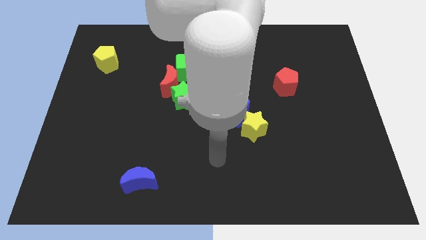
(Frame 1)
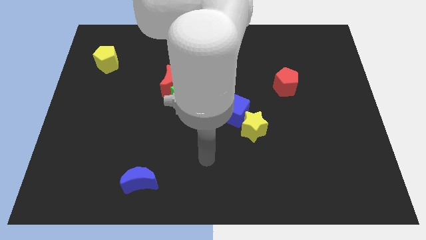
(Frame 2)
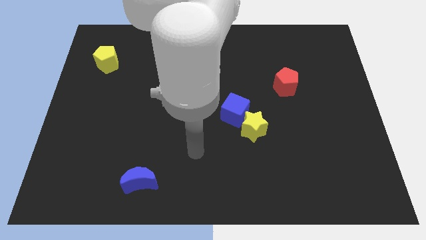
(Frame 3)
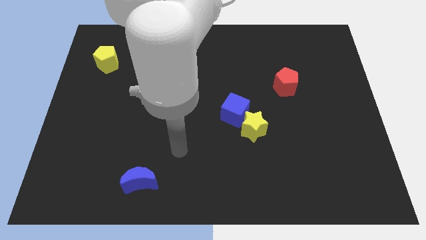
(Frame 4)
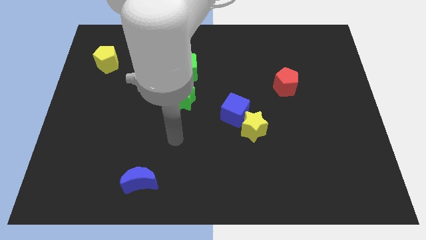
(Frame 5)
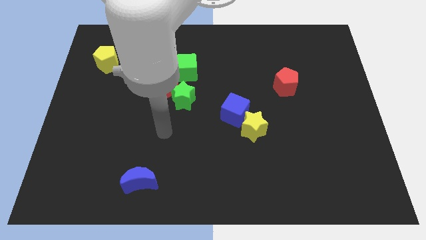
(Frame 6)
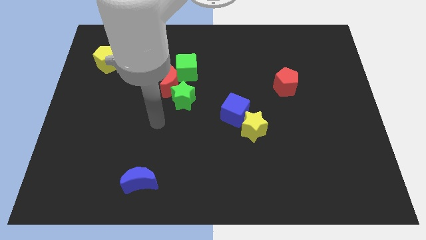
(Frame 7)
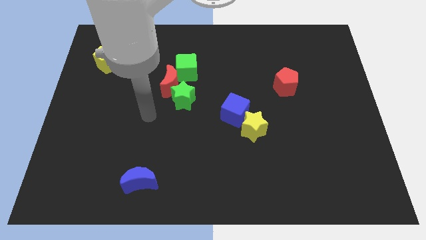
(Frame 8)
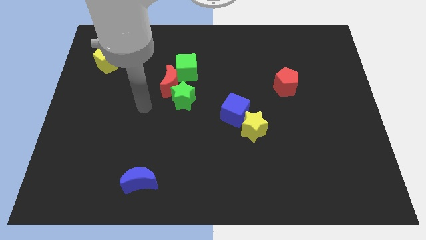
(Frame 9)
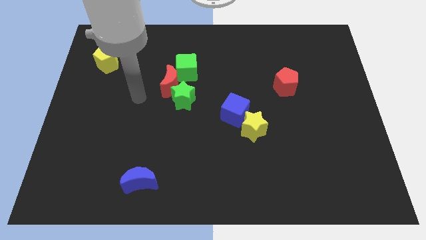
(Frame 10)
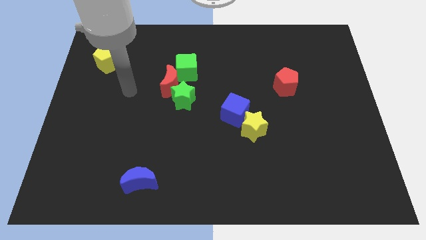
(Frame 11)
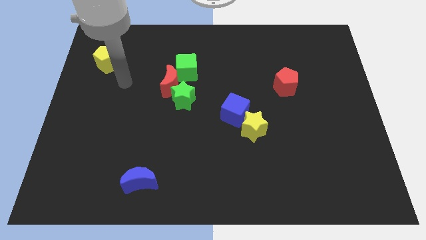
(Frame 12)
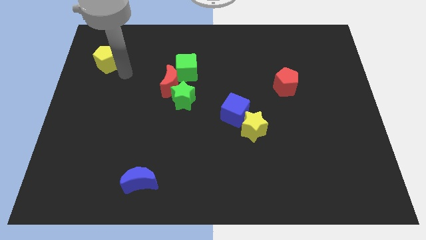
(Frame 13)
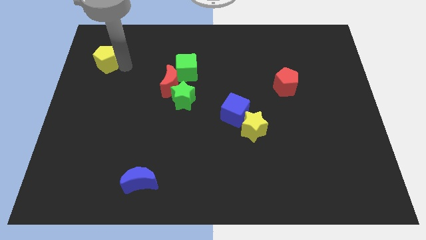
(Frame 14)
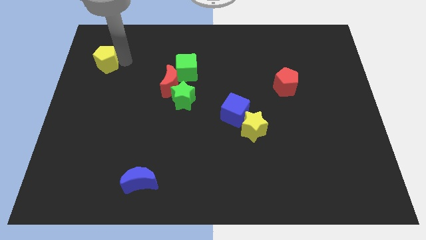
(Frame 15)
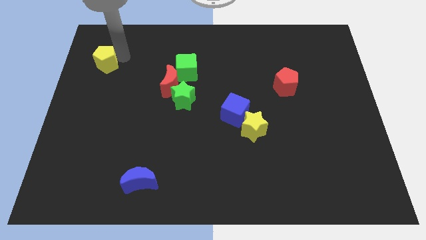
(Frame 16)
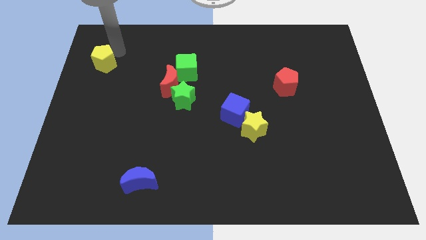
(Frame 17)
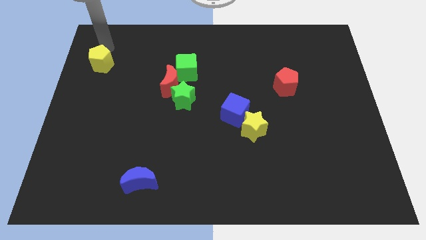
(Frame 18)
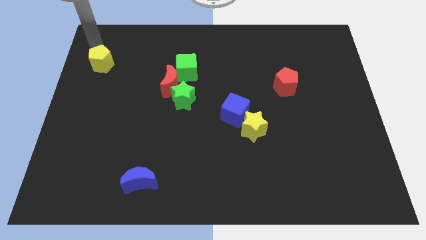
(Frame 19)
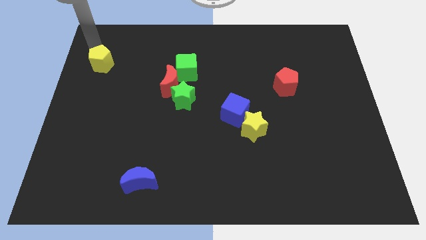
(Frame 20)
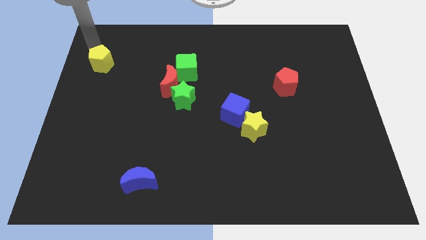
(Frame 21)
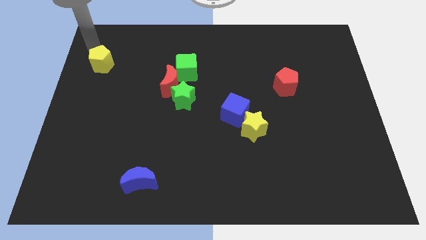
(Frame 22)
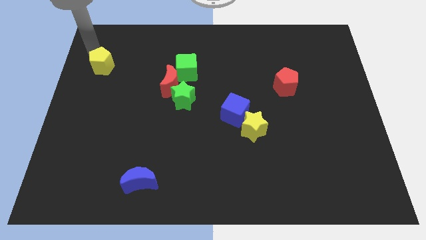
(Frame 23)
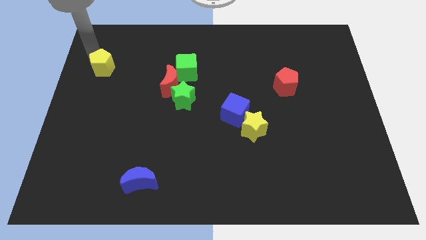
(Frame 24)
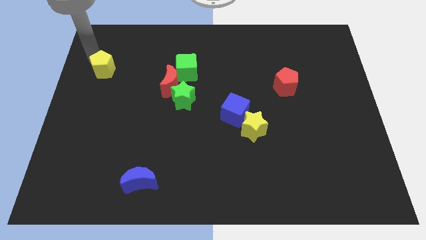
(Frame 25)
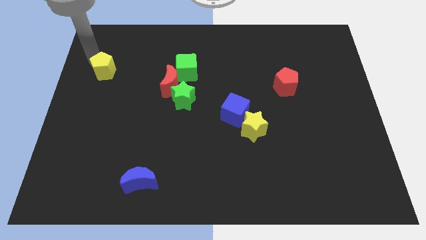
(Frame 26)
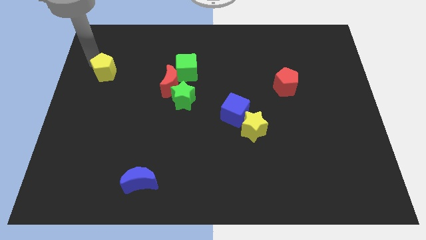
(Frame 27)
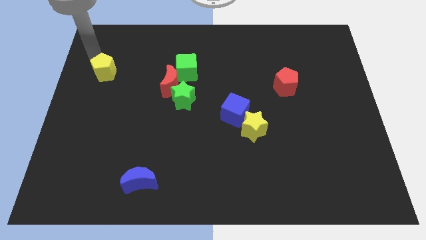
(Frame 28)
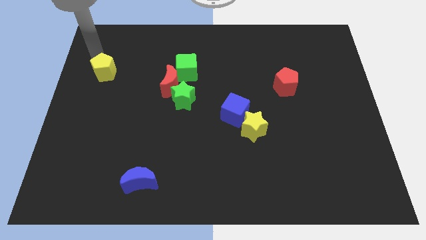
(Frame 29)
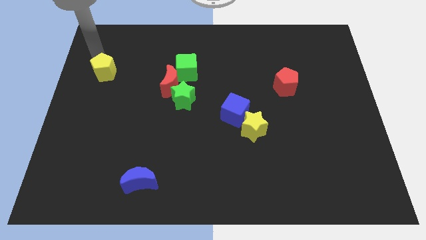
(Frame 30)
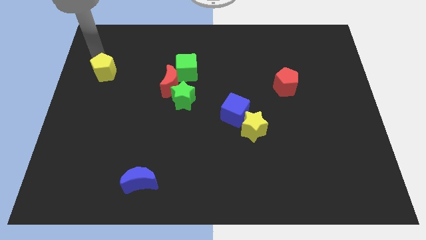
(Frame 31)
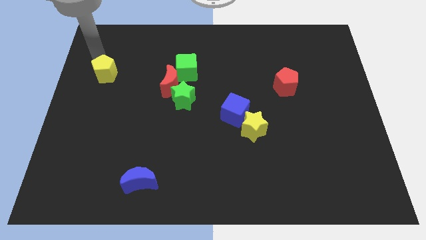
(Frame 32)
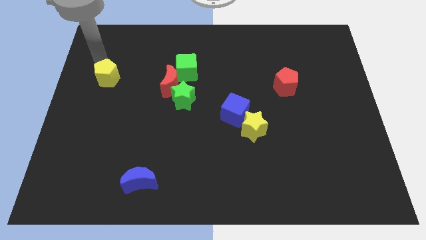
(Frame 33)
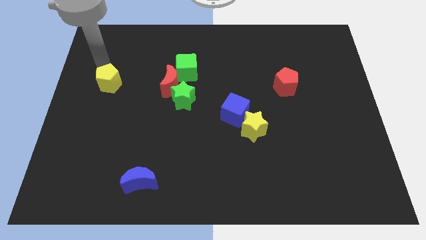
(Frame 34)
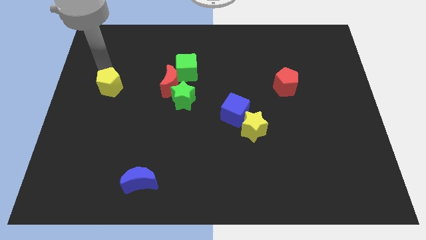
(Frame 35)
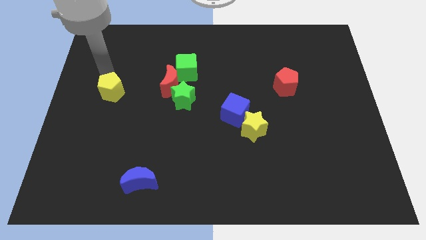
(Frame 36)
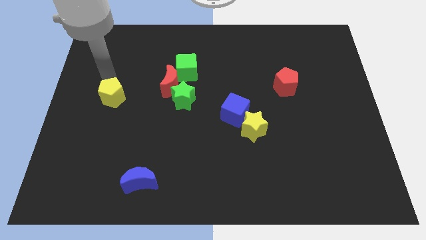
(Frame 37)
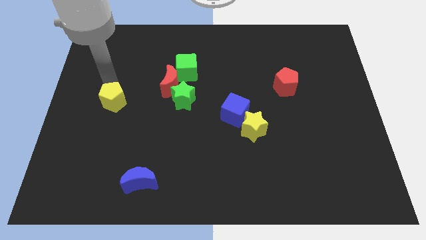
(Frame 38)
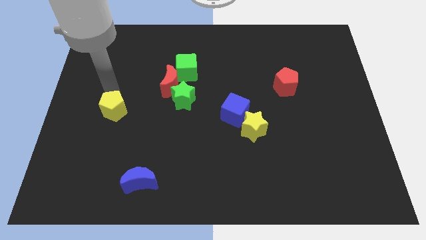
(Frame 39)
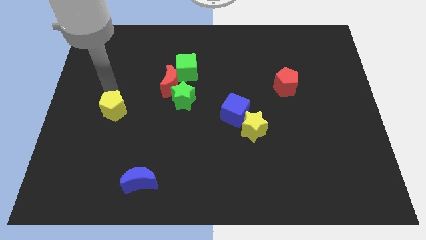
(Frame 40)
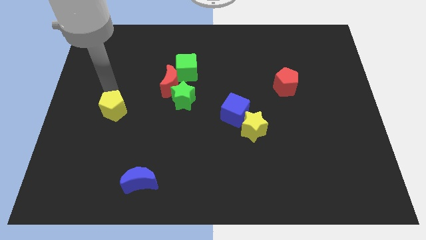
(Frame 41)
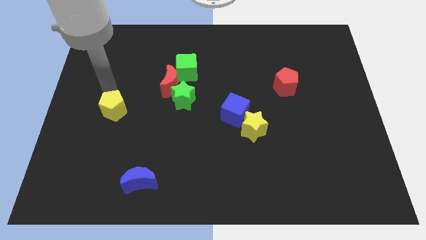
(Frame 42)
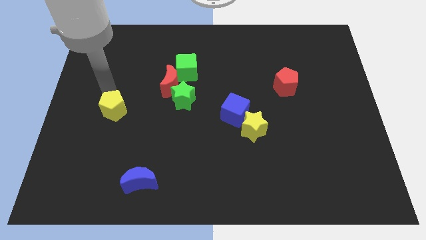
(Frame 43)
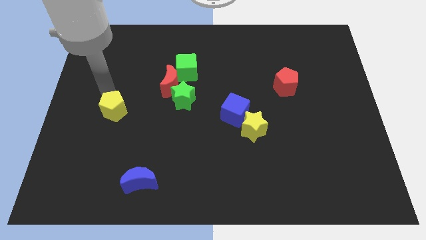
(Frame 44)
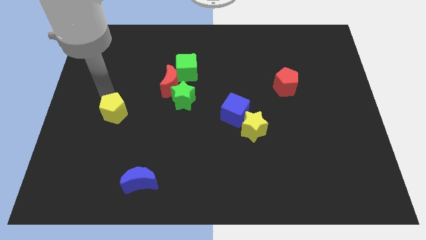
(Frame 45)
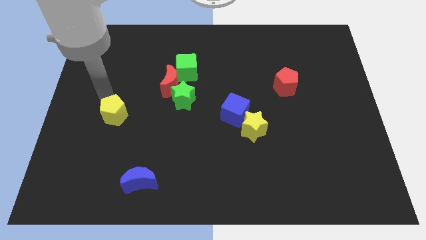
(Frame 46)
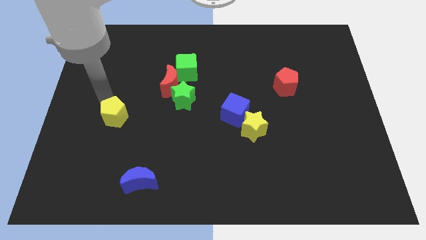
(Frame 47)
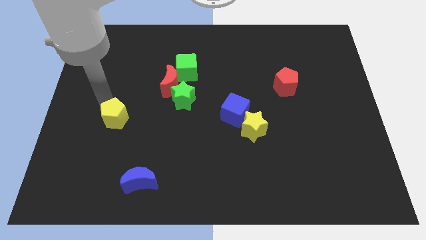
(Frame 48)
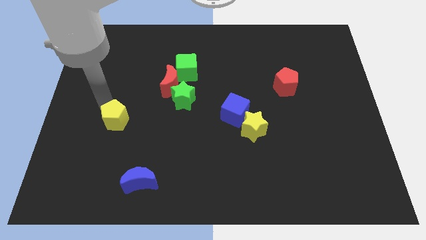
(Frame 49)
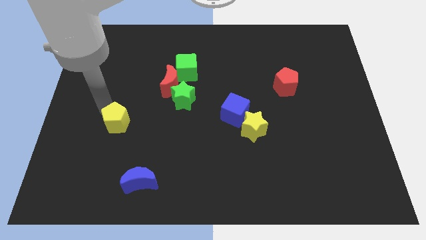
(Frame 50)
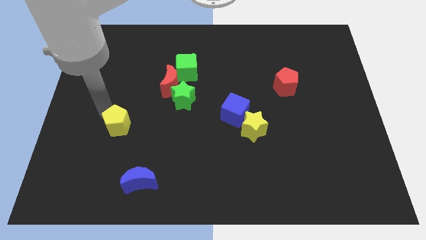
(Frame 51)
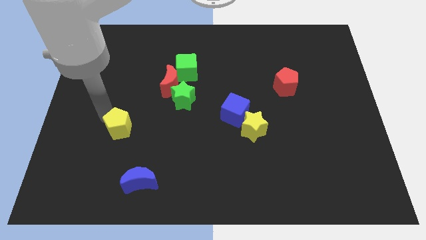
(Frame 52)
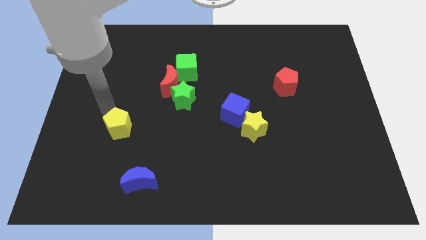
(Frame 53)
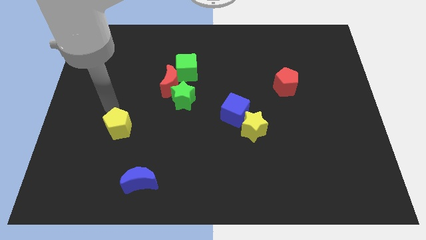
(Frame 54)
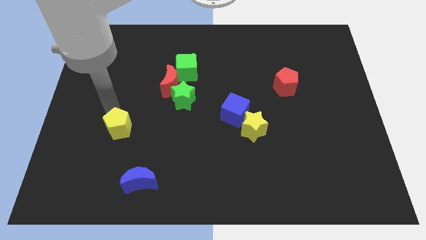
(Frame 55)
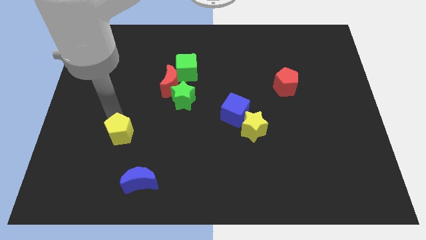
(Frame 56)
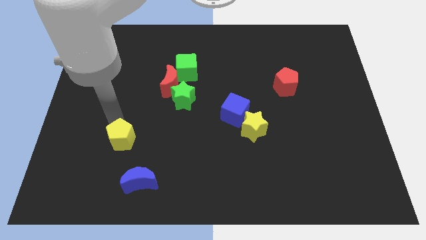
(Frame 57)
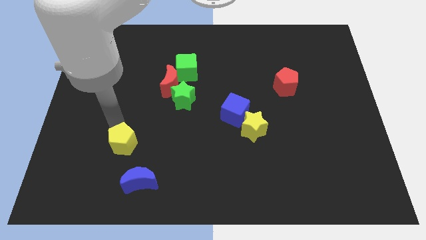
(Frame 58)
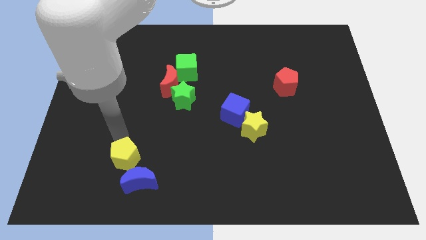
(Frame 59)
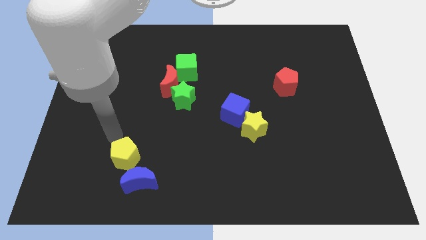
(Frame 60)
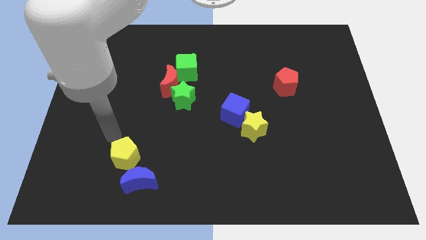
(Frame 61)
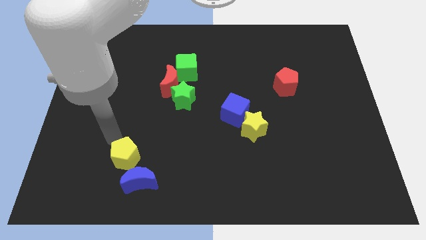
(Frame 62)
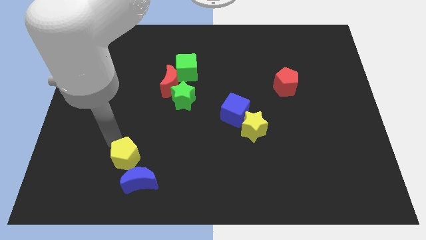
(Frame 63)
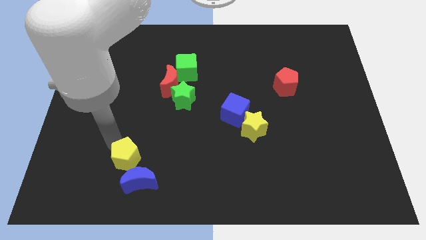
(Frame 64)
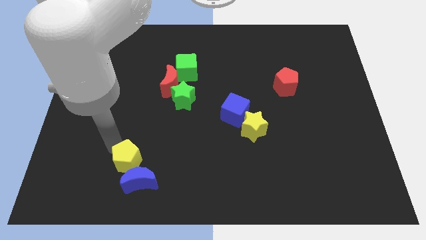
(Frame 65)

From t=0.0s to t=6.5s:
push the yellow pentagon towards the blue moon

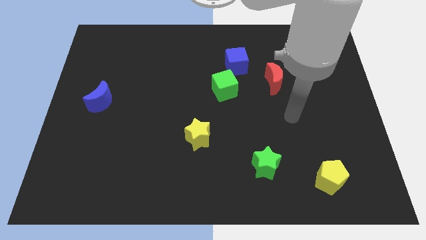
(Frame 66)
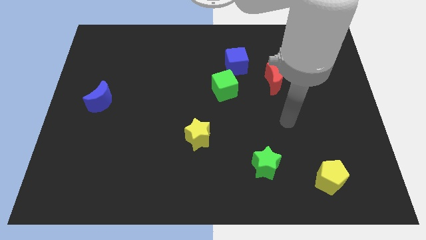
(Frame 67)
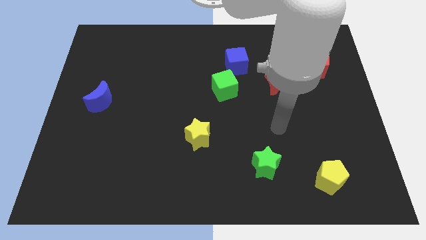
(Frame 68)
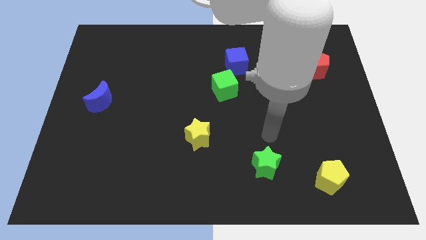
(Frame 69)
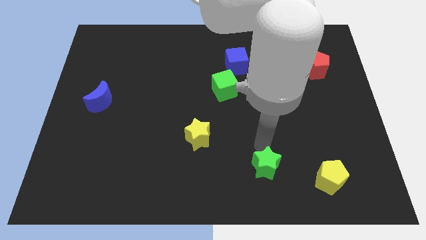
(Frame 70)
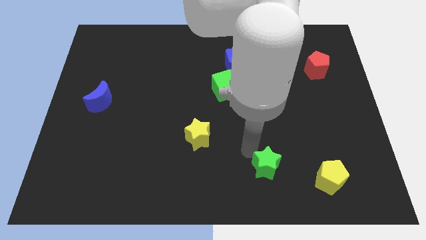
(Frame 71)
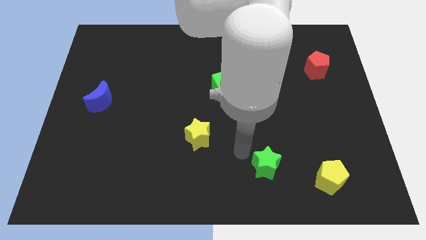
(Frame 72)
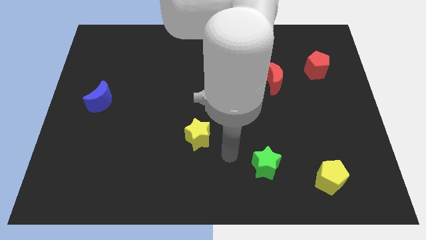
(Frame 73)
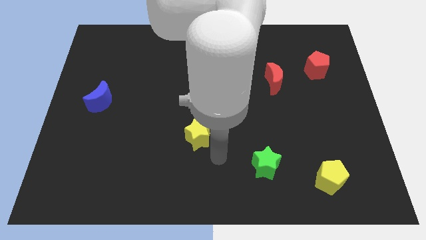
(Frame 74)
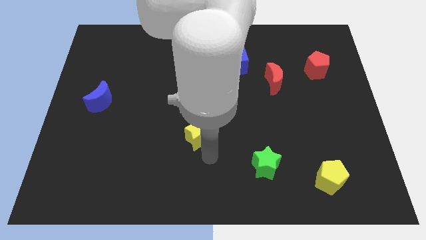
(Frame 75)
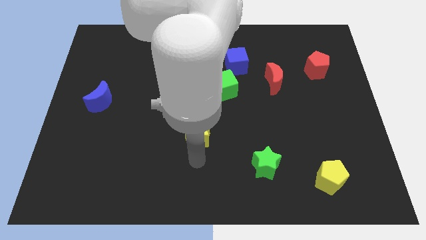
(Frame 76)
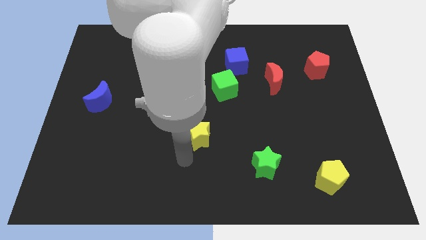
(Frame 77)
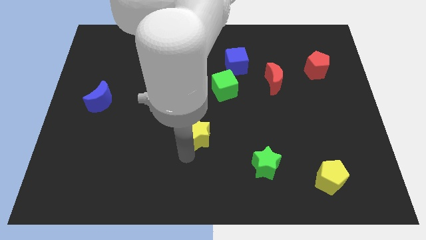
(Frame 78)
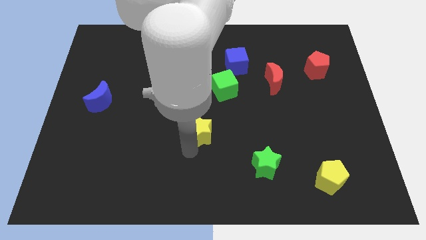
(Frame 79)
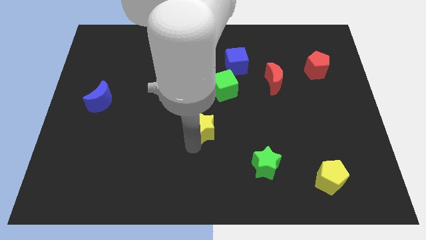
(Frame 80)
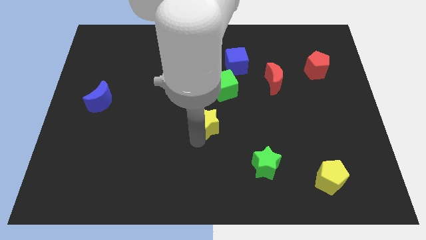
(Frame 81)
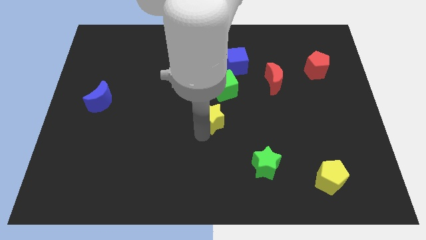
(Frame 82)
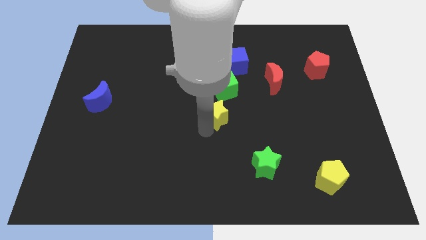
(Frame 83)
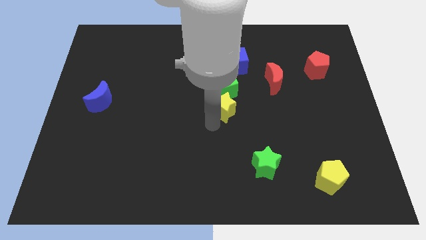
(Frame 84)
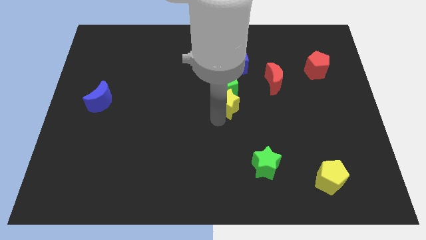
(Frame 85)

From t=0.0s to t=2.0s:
push the yellow star towards the green cube
